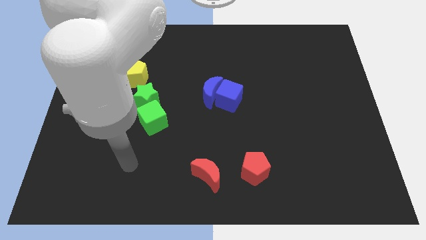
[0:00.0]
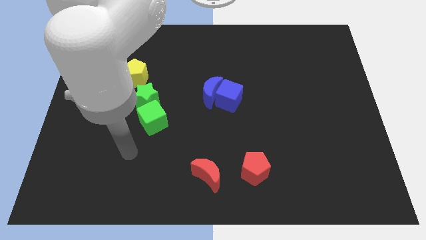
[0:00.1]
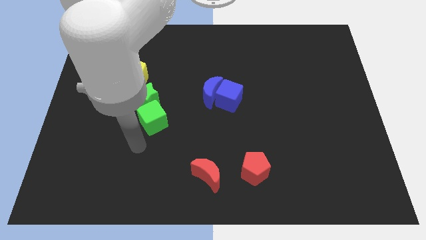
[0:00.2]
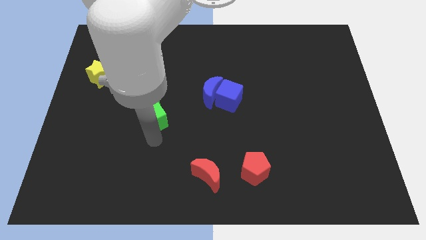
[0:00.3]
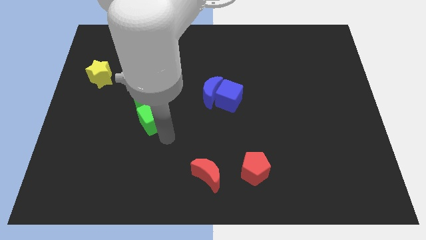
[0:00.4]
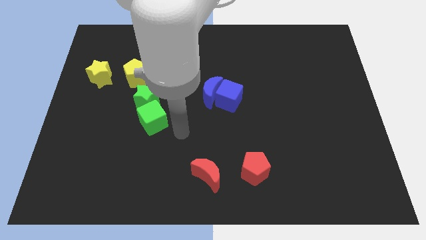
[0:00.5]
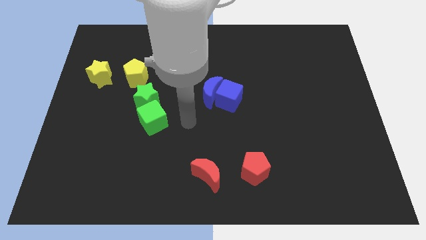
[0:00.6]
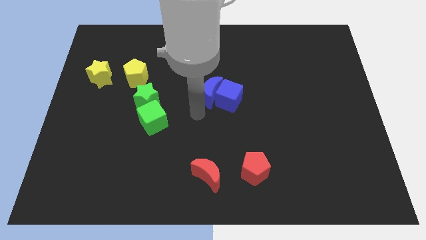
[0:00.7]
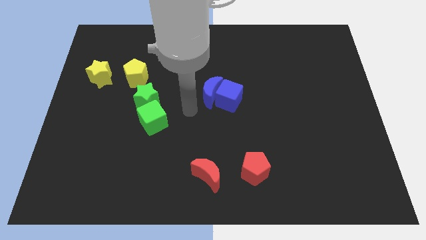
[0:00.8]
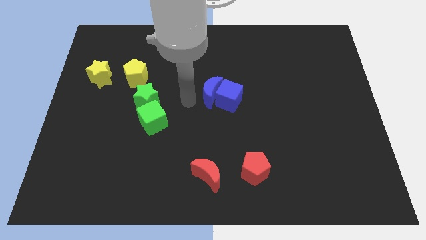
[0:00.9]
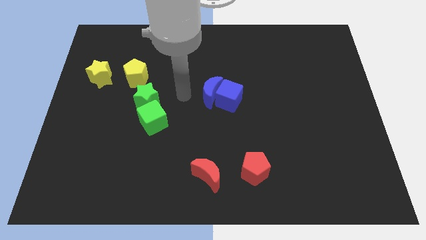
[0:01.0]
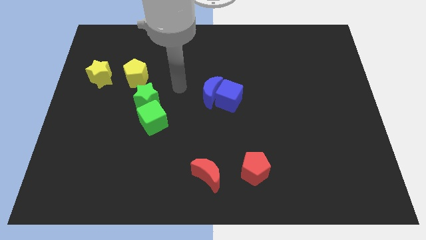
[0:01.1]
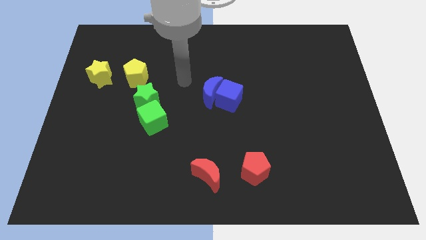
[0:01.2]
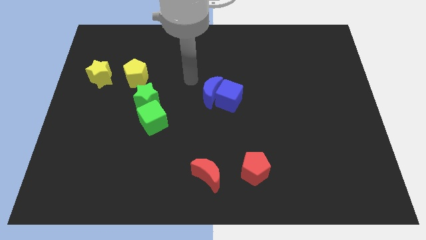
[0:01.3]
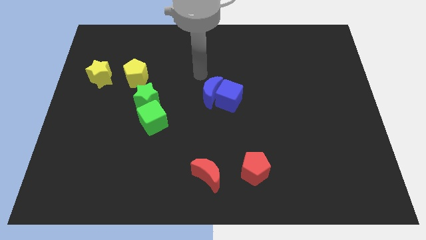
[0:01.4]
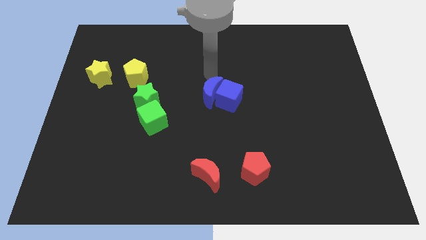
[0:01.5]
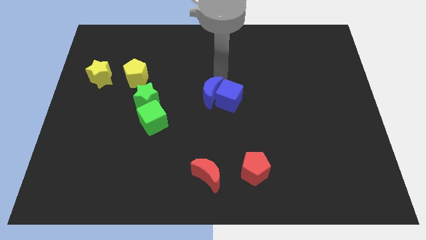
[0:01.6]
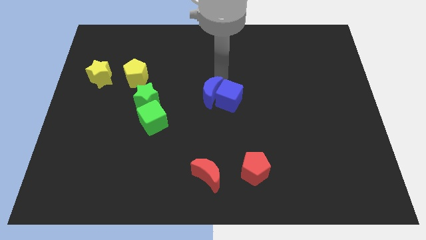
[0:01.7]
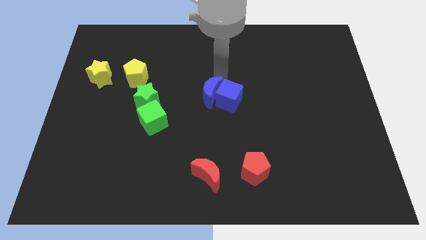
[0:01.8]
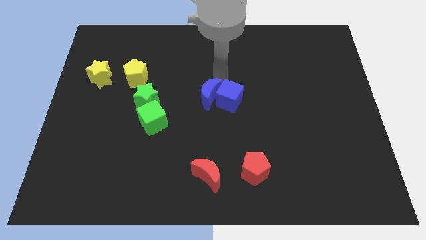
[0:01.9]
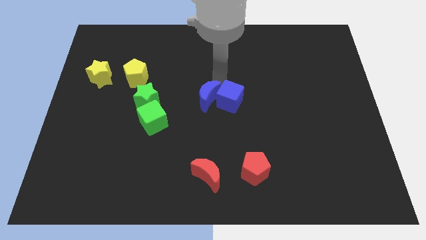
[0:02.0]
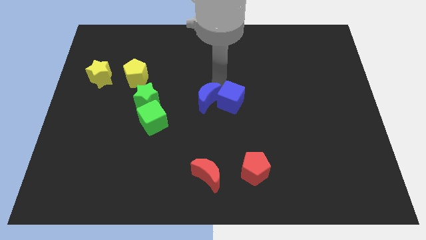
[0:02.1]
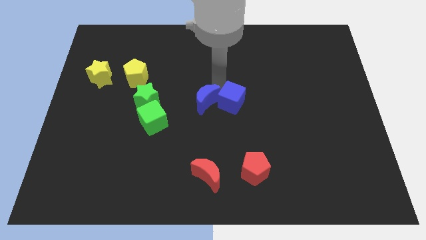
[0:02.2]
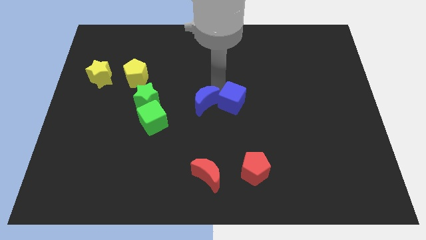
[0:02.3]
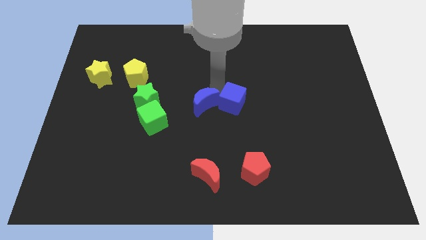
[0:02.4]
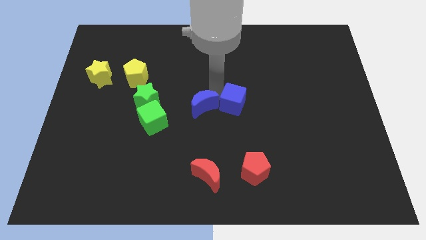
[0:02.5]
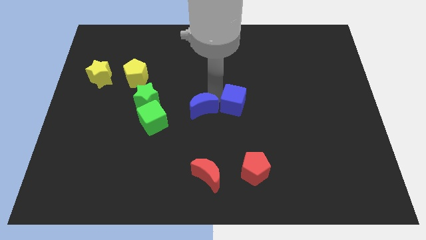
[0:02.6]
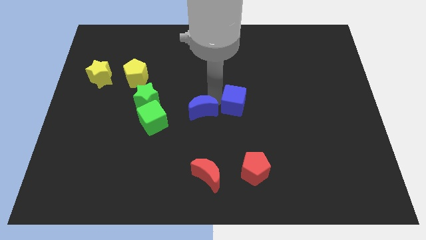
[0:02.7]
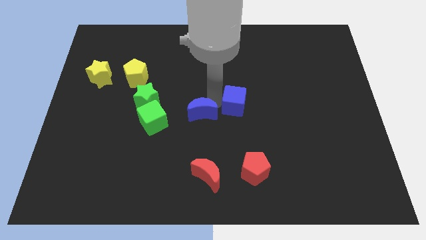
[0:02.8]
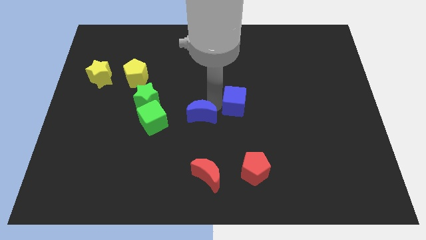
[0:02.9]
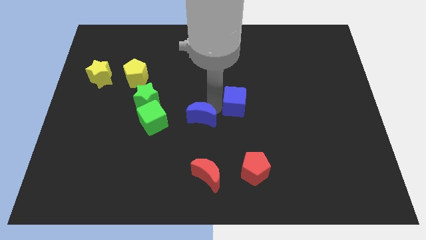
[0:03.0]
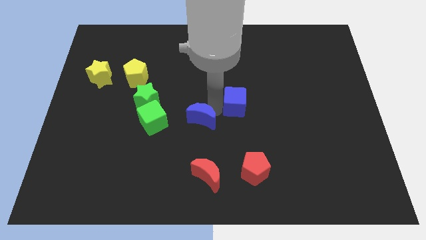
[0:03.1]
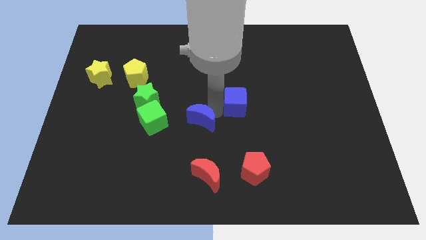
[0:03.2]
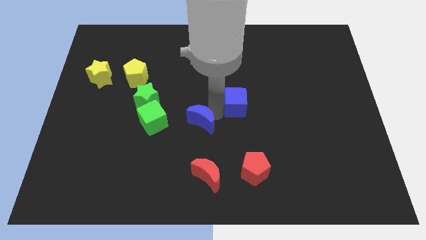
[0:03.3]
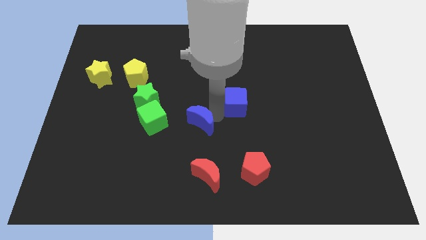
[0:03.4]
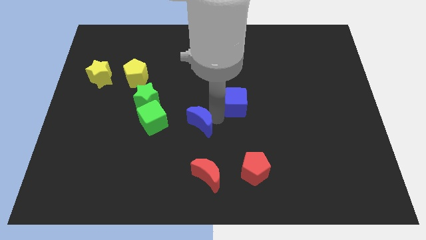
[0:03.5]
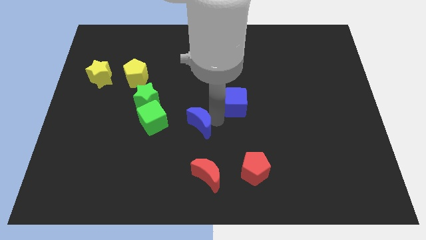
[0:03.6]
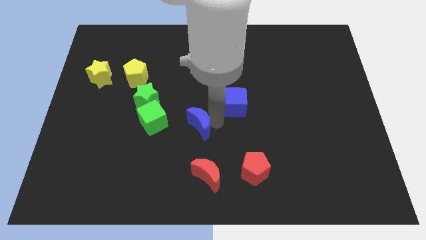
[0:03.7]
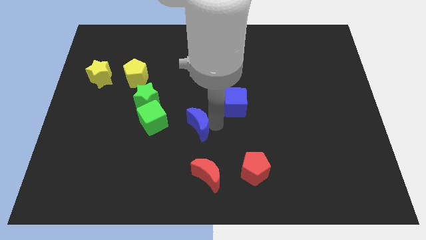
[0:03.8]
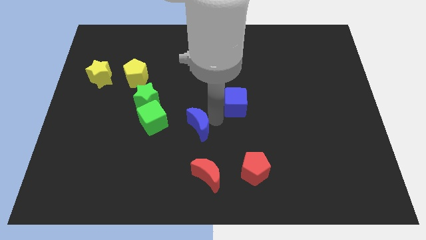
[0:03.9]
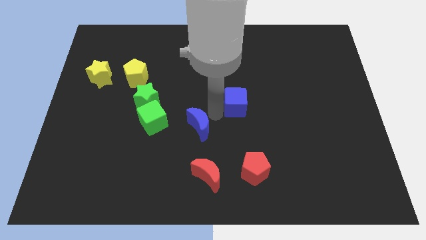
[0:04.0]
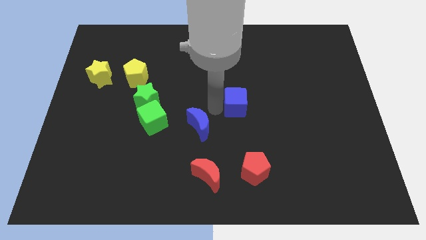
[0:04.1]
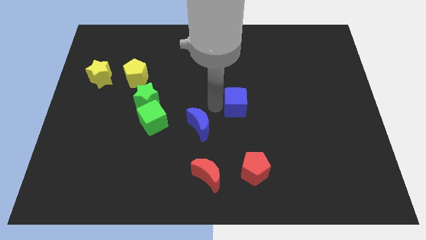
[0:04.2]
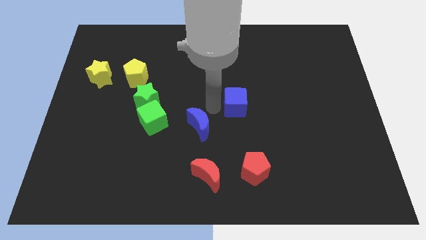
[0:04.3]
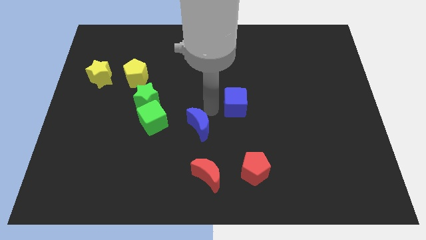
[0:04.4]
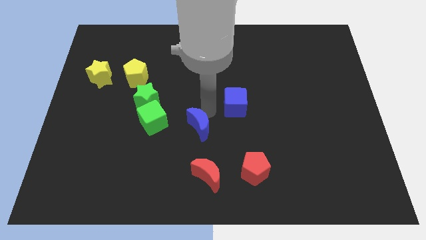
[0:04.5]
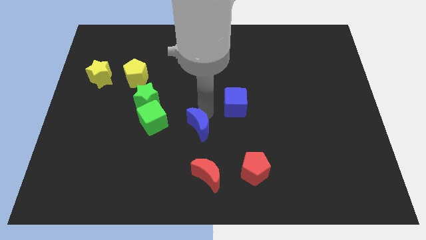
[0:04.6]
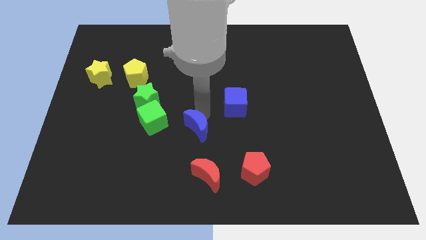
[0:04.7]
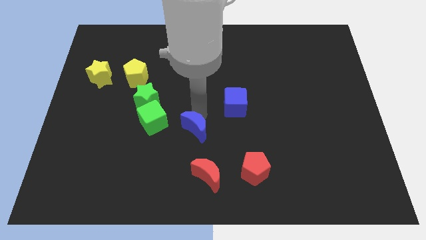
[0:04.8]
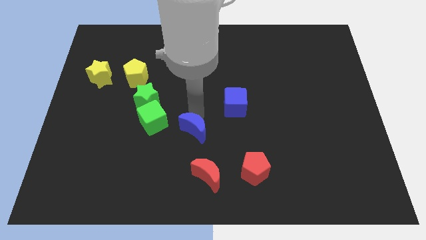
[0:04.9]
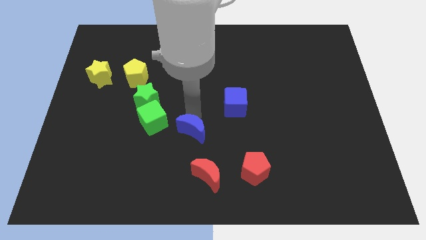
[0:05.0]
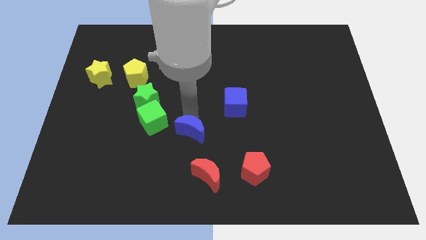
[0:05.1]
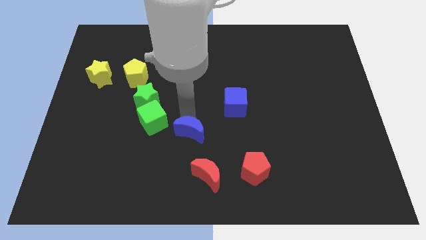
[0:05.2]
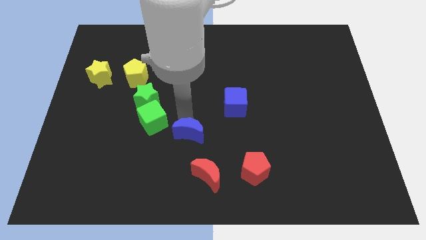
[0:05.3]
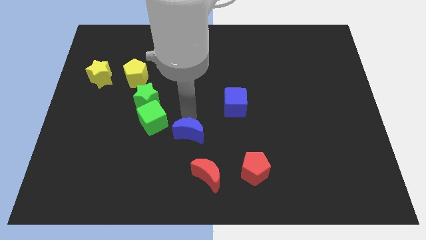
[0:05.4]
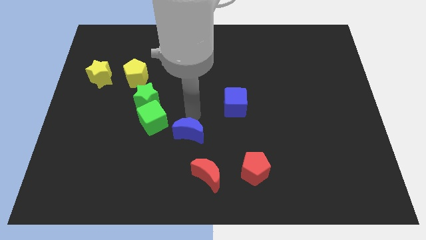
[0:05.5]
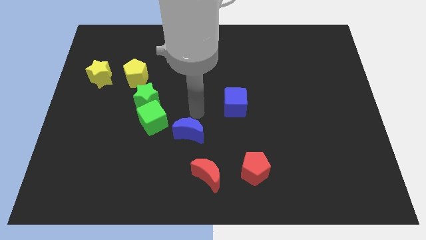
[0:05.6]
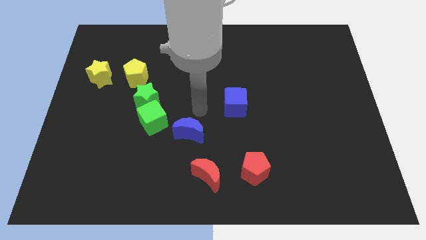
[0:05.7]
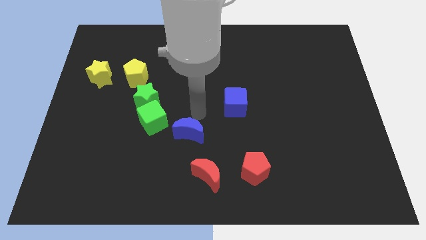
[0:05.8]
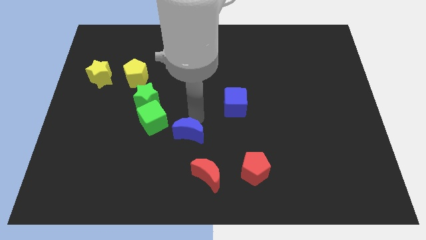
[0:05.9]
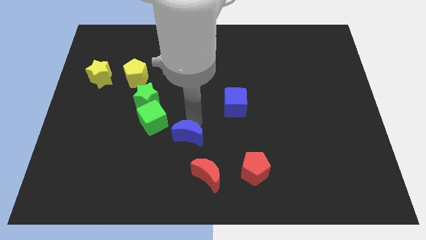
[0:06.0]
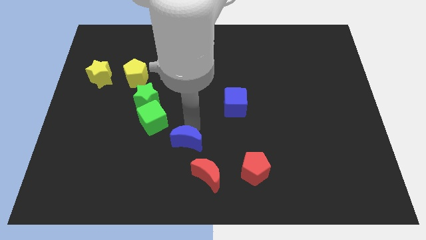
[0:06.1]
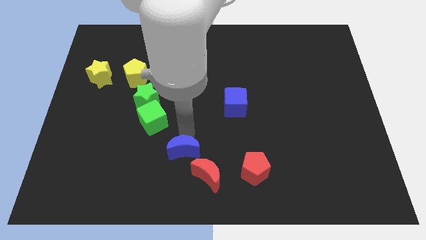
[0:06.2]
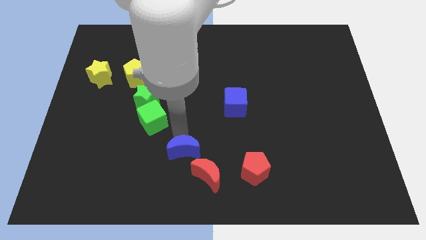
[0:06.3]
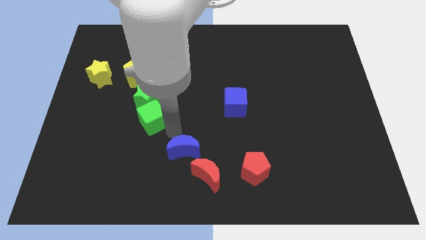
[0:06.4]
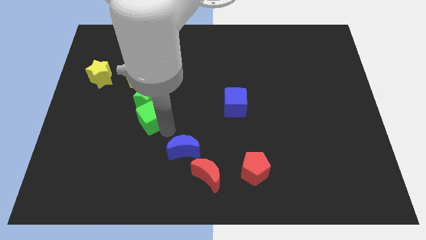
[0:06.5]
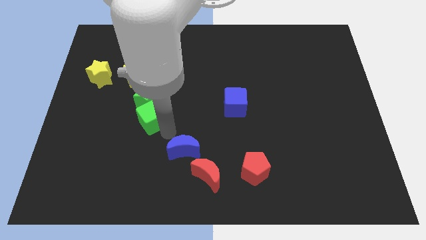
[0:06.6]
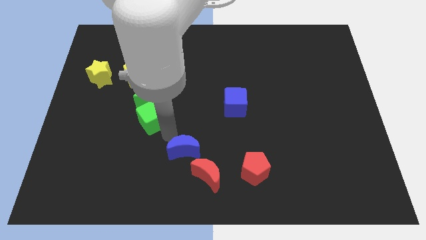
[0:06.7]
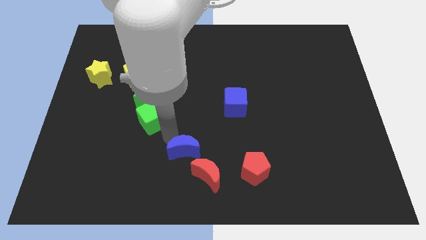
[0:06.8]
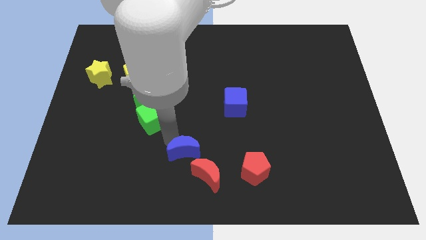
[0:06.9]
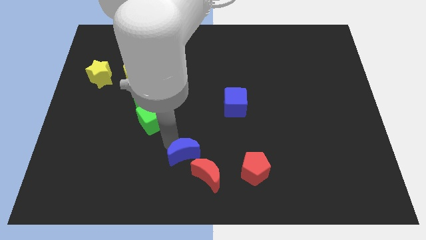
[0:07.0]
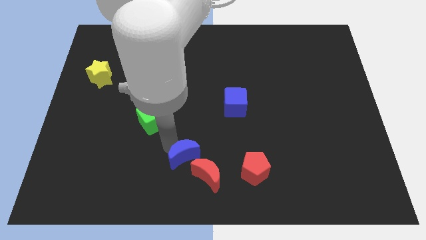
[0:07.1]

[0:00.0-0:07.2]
put the blue moon just left of the red pentagon
